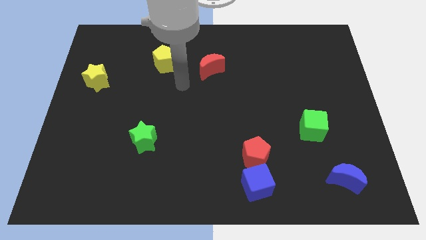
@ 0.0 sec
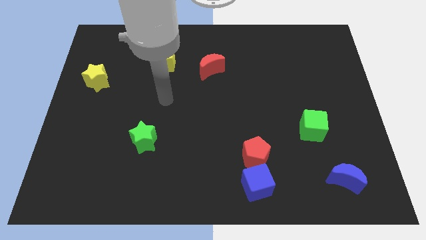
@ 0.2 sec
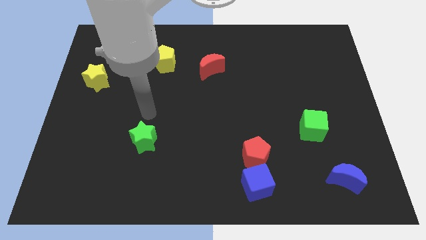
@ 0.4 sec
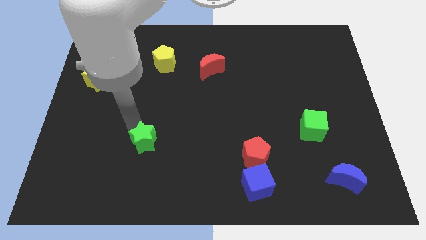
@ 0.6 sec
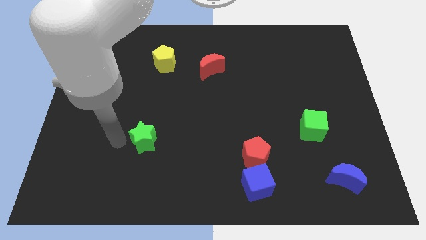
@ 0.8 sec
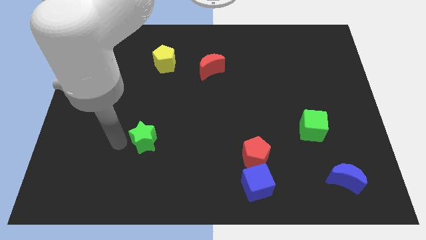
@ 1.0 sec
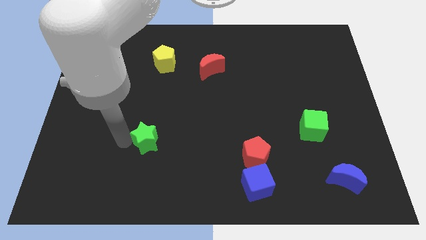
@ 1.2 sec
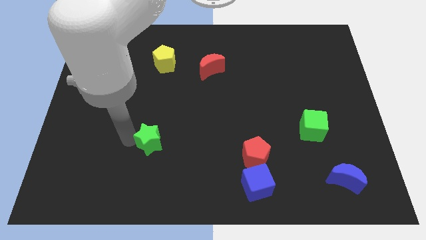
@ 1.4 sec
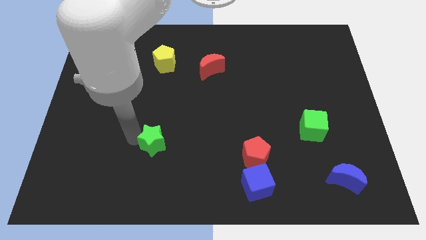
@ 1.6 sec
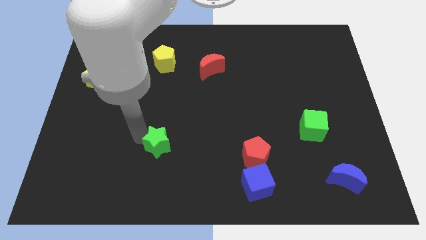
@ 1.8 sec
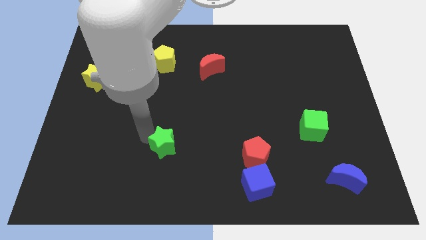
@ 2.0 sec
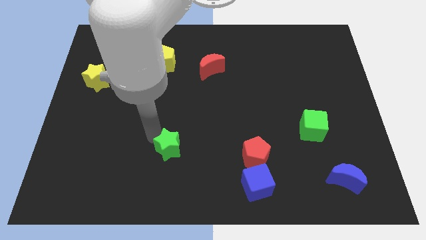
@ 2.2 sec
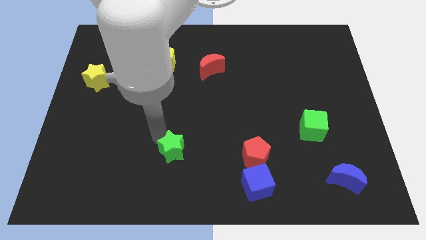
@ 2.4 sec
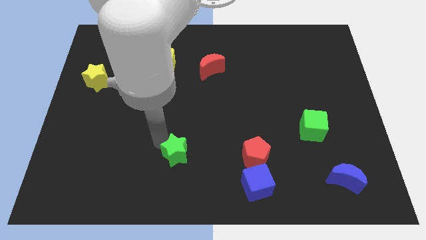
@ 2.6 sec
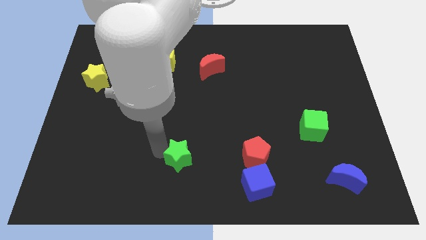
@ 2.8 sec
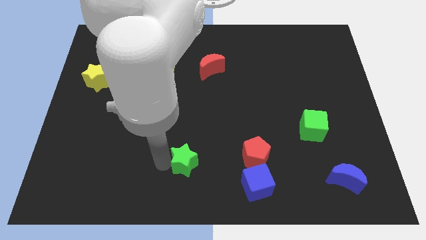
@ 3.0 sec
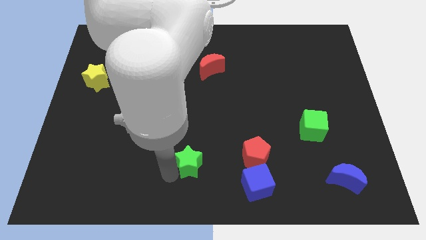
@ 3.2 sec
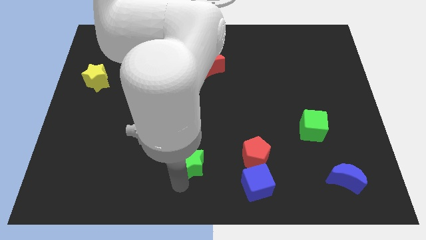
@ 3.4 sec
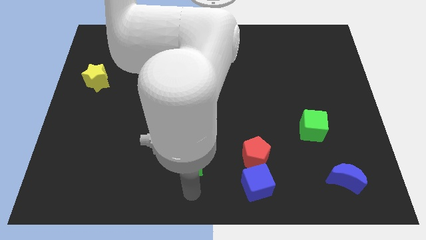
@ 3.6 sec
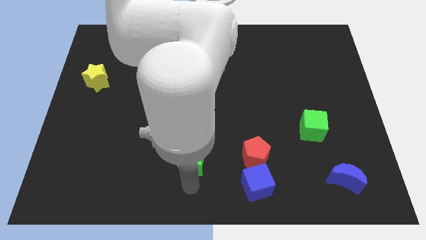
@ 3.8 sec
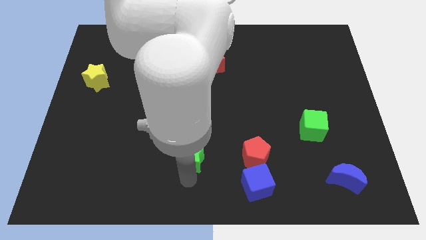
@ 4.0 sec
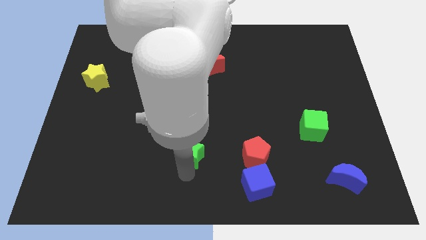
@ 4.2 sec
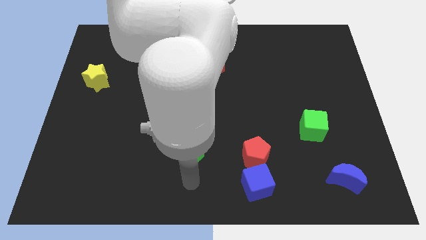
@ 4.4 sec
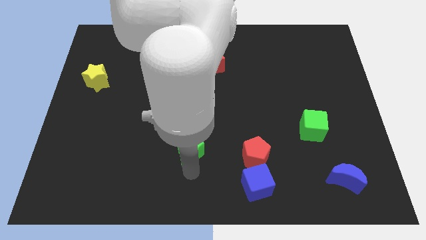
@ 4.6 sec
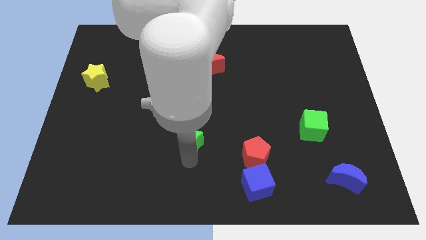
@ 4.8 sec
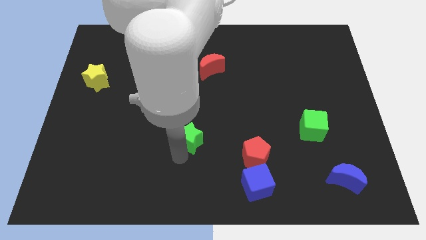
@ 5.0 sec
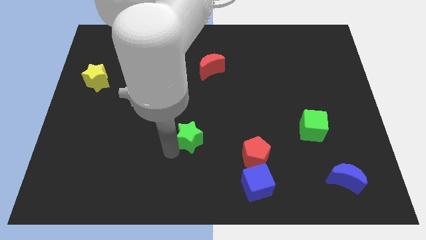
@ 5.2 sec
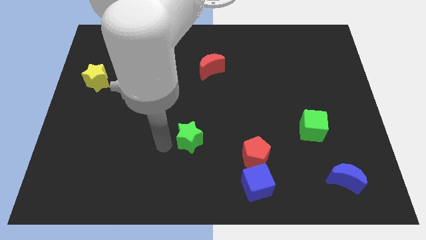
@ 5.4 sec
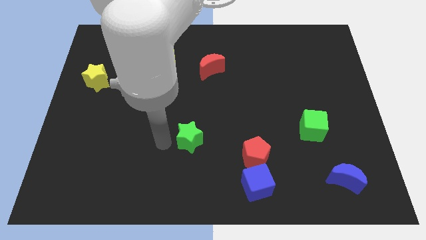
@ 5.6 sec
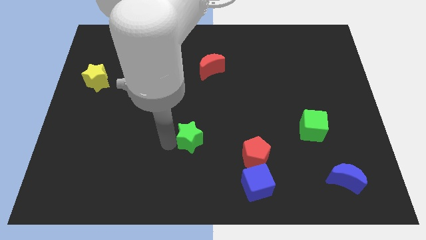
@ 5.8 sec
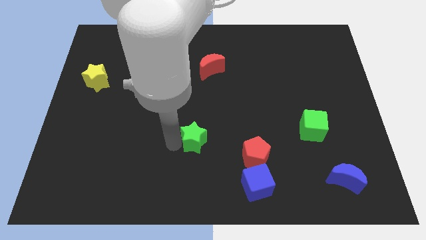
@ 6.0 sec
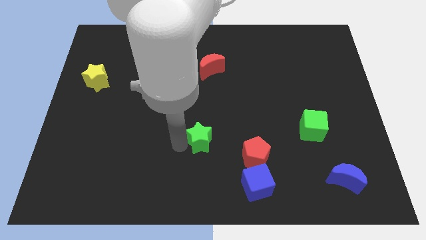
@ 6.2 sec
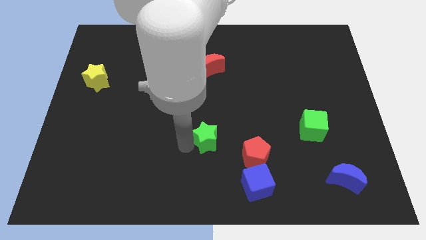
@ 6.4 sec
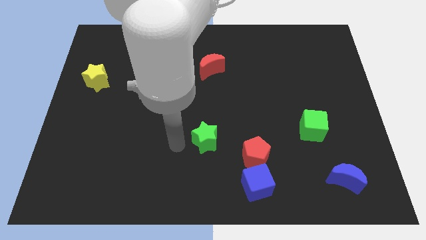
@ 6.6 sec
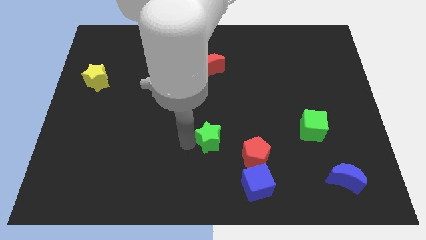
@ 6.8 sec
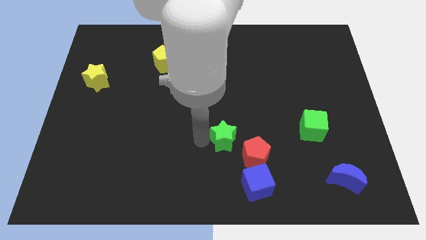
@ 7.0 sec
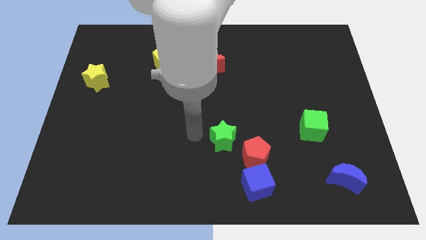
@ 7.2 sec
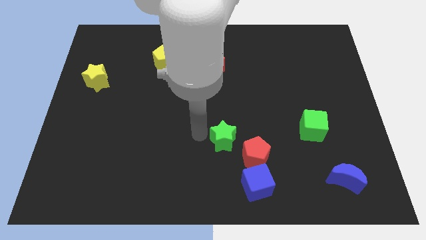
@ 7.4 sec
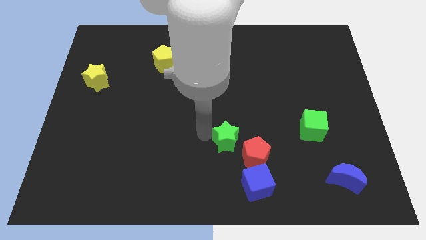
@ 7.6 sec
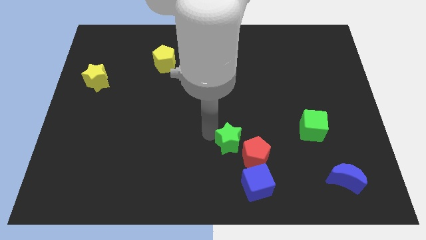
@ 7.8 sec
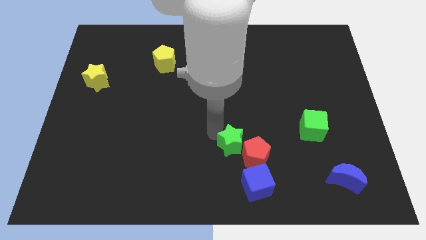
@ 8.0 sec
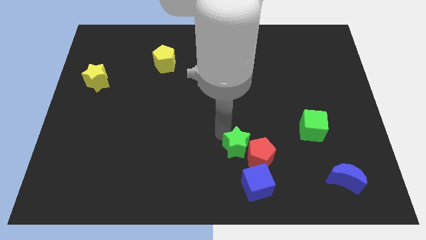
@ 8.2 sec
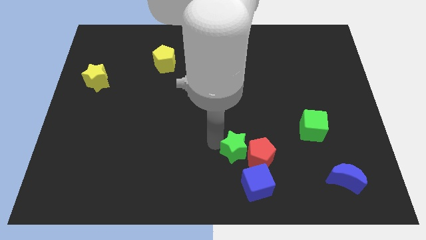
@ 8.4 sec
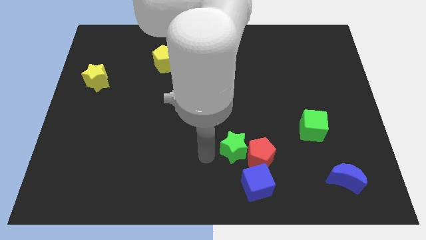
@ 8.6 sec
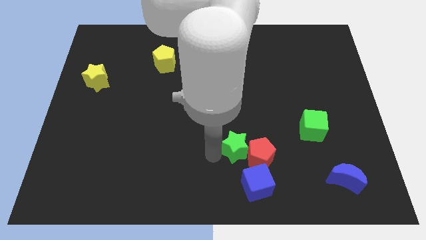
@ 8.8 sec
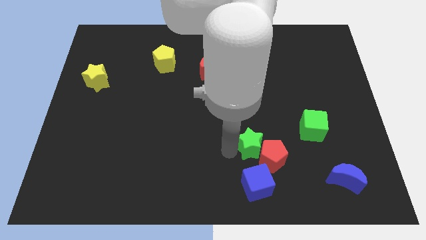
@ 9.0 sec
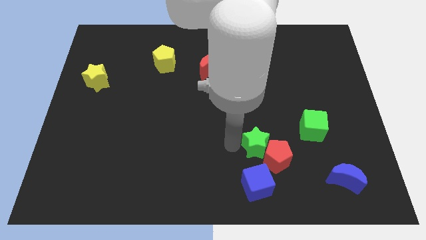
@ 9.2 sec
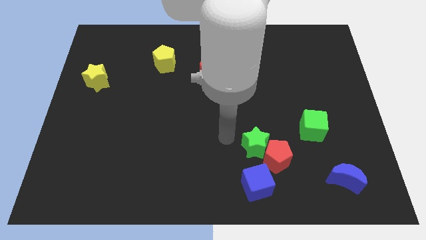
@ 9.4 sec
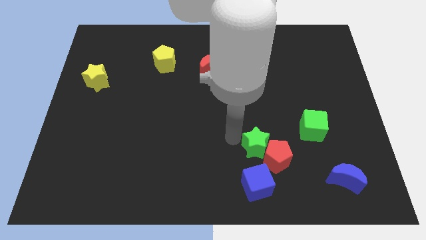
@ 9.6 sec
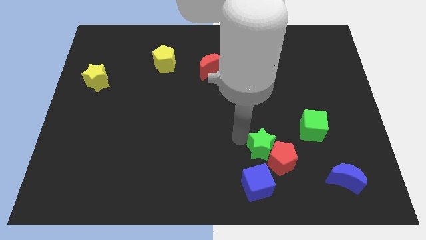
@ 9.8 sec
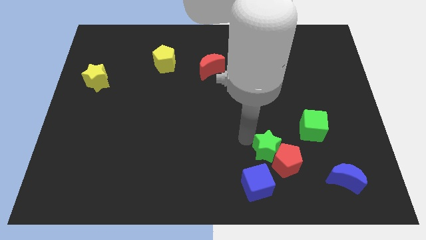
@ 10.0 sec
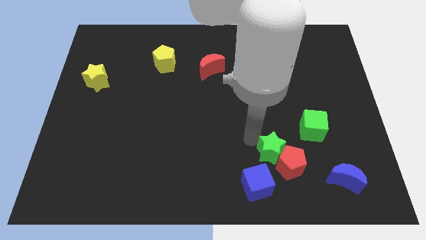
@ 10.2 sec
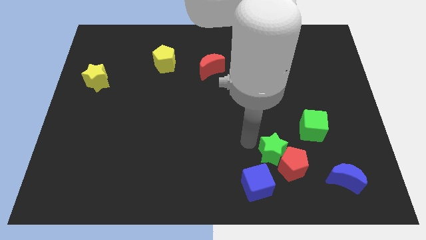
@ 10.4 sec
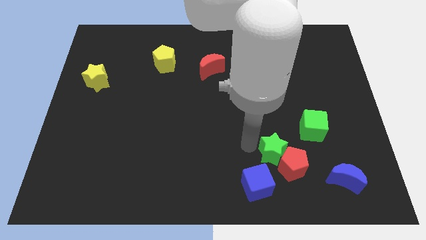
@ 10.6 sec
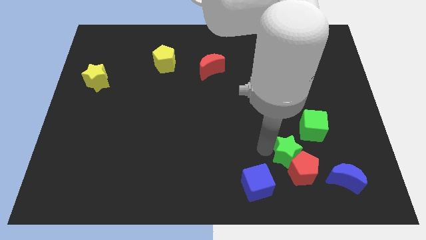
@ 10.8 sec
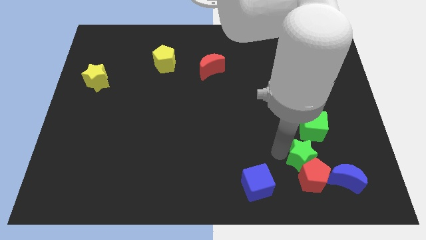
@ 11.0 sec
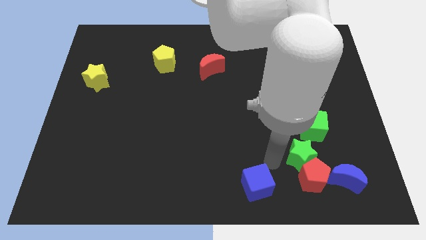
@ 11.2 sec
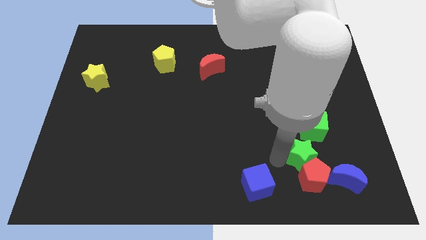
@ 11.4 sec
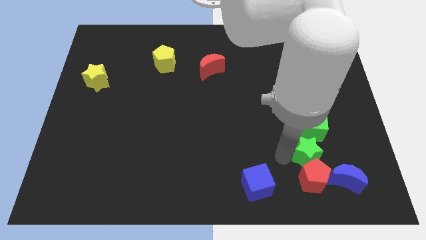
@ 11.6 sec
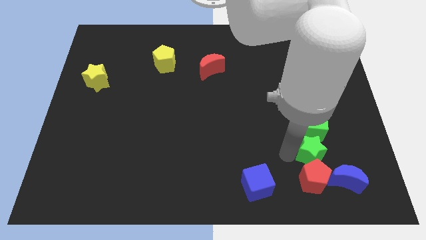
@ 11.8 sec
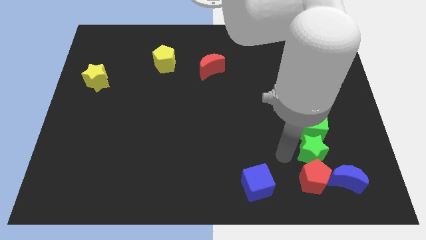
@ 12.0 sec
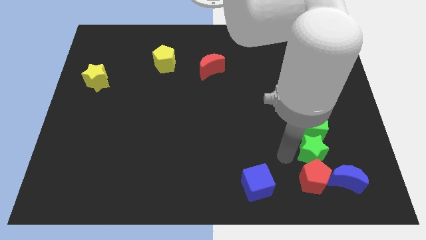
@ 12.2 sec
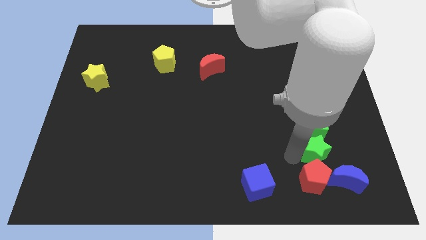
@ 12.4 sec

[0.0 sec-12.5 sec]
slide the green star to the bottom right of the green cube

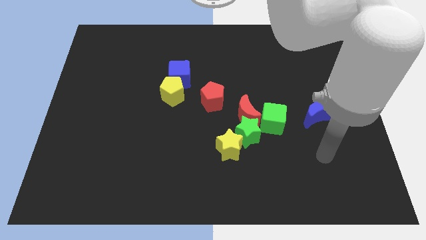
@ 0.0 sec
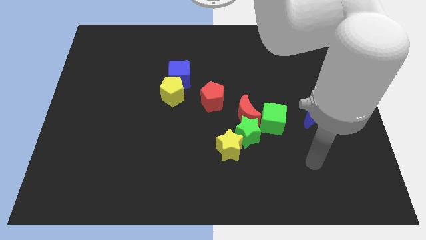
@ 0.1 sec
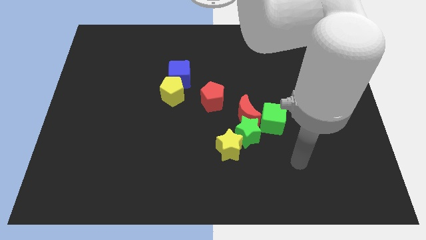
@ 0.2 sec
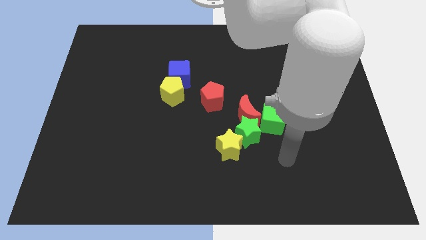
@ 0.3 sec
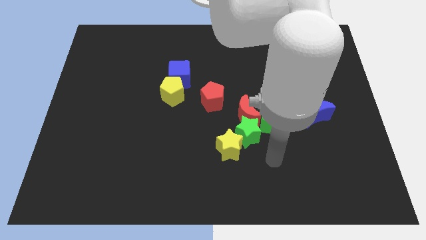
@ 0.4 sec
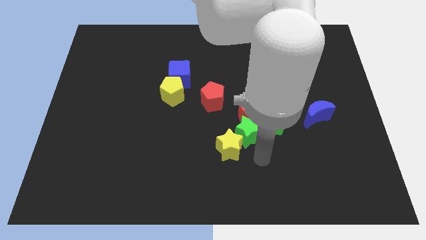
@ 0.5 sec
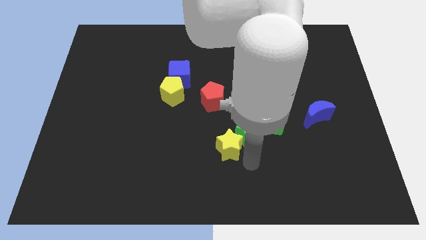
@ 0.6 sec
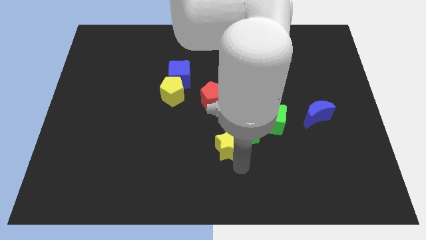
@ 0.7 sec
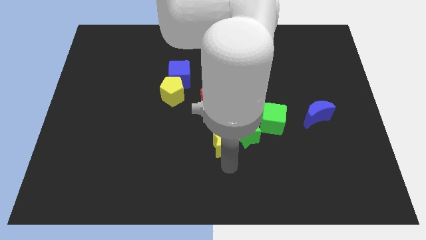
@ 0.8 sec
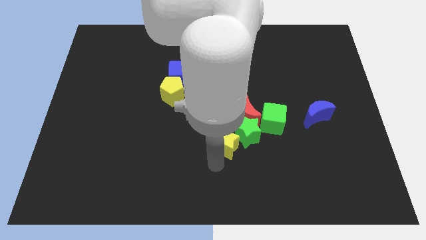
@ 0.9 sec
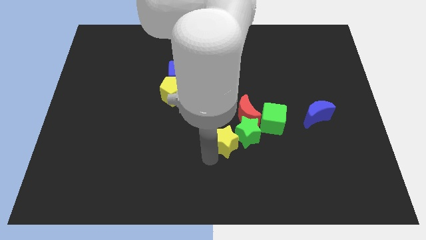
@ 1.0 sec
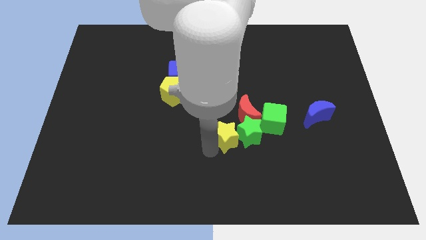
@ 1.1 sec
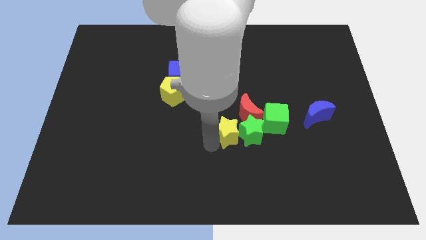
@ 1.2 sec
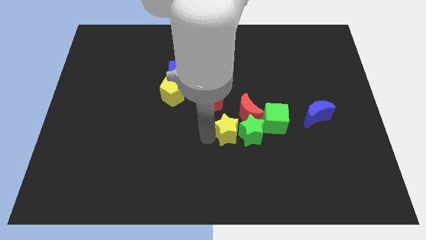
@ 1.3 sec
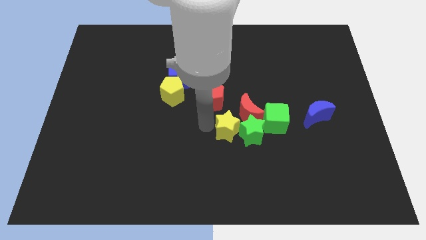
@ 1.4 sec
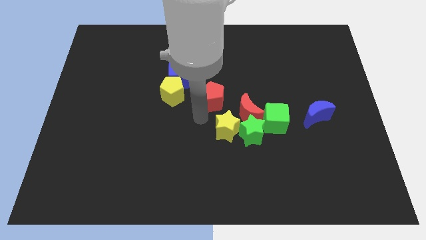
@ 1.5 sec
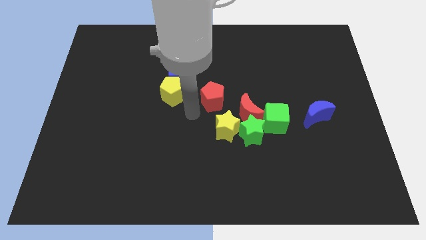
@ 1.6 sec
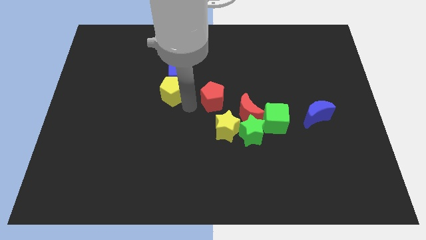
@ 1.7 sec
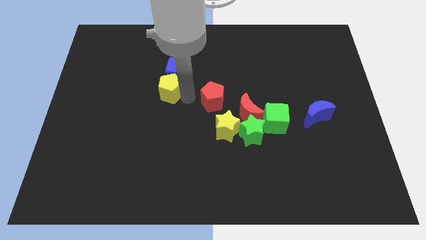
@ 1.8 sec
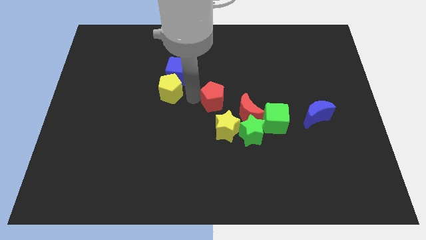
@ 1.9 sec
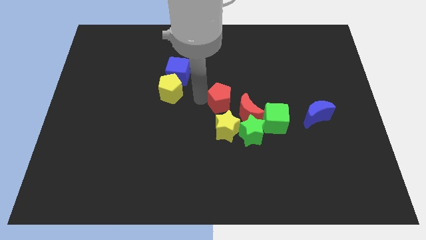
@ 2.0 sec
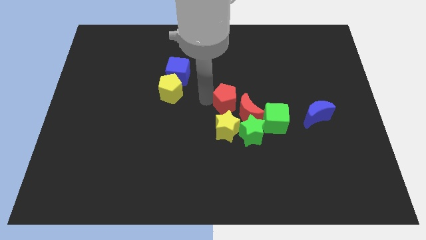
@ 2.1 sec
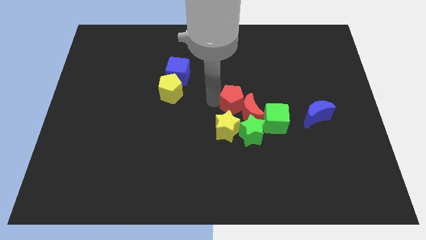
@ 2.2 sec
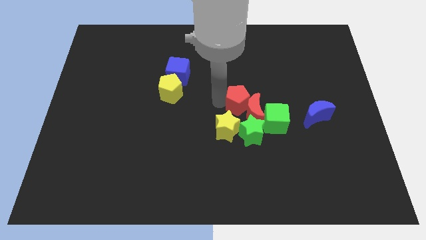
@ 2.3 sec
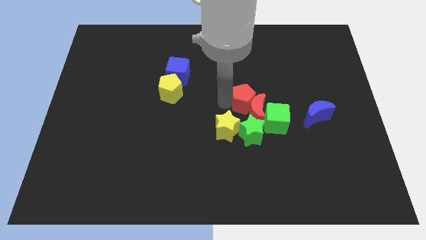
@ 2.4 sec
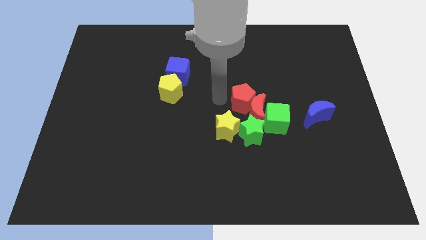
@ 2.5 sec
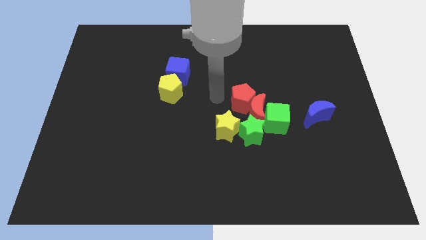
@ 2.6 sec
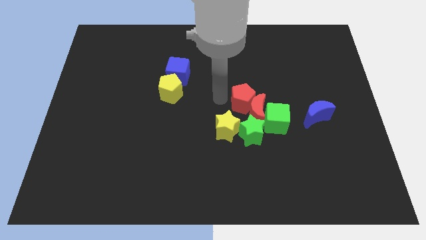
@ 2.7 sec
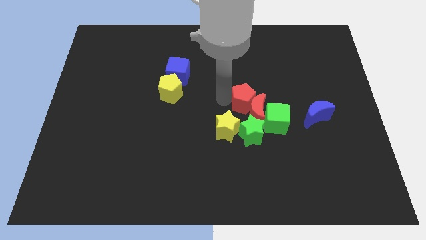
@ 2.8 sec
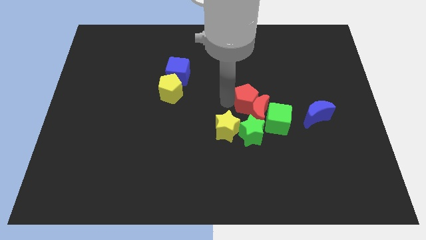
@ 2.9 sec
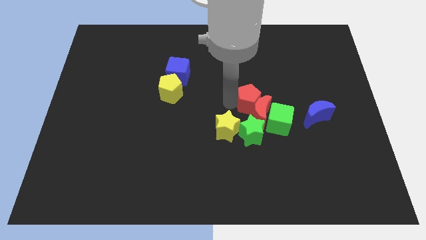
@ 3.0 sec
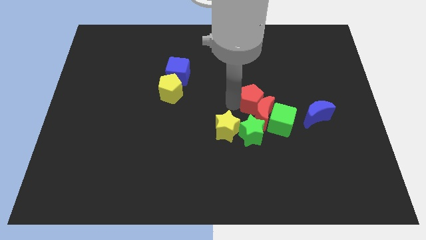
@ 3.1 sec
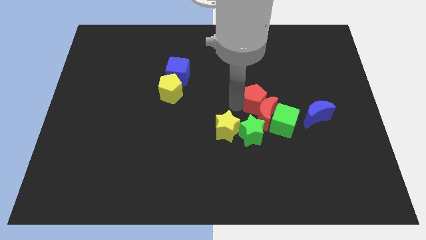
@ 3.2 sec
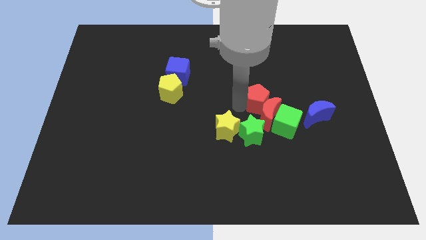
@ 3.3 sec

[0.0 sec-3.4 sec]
push the red pentagon to the top right of the green star
